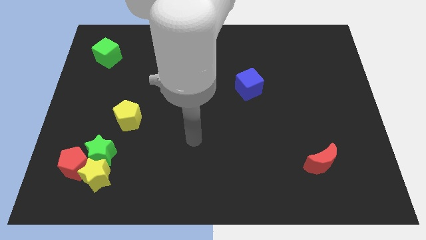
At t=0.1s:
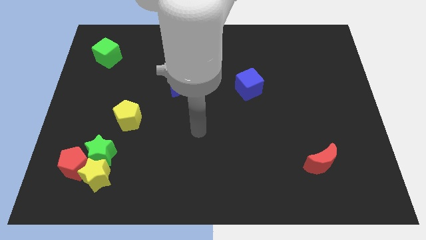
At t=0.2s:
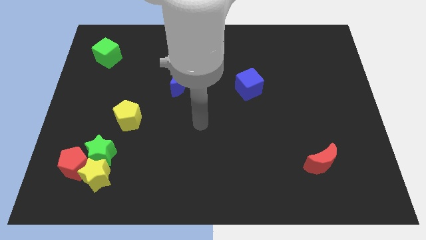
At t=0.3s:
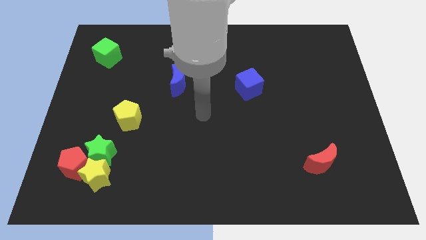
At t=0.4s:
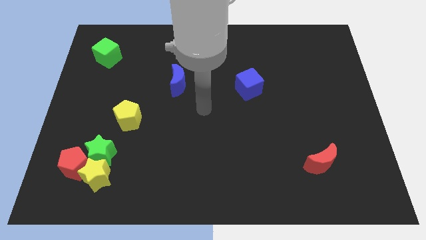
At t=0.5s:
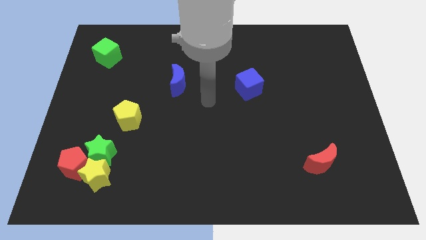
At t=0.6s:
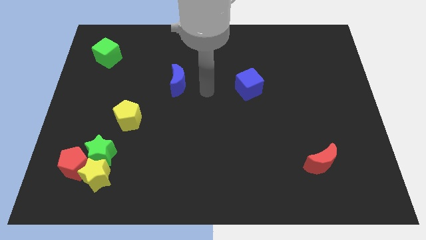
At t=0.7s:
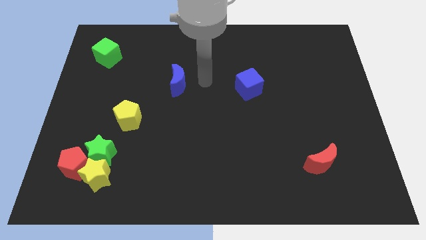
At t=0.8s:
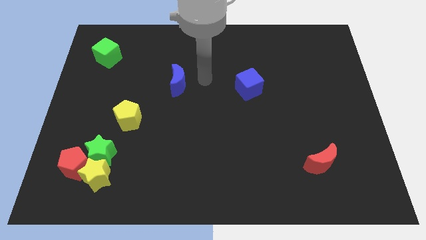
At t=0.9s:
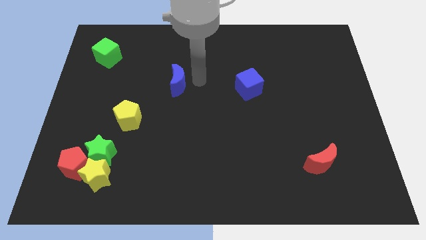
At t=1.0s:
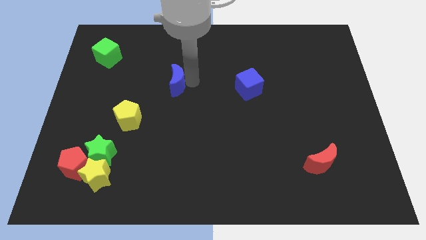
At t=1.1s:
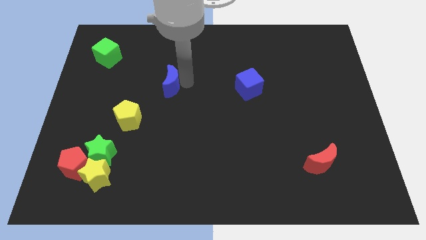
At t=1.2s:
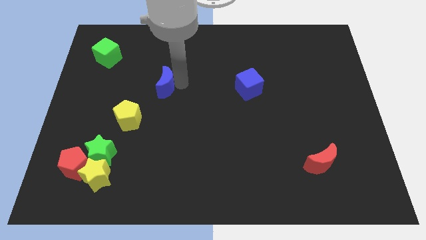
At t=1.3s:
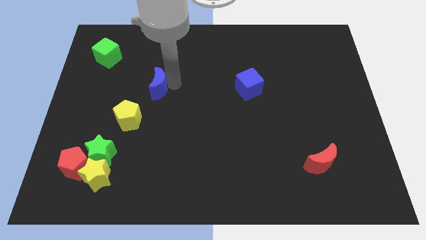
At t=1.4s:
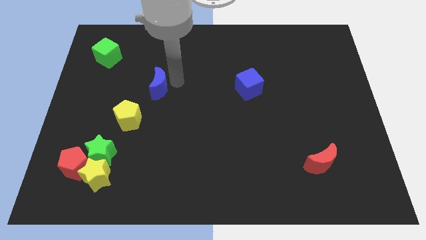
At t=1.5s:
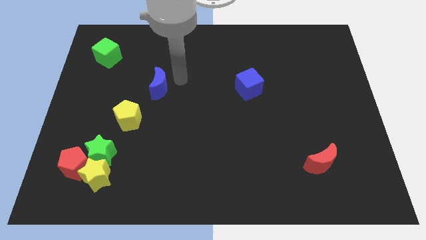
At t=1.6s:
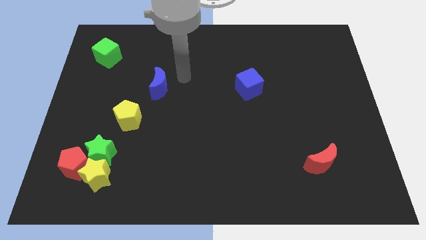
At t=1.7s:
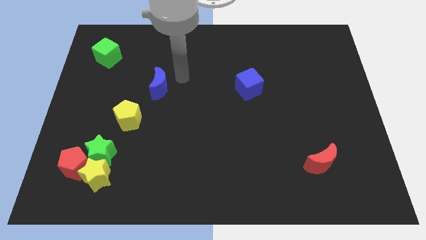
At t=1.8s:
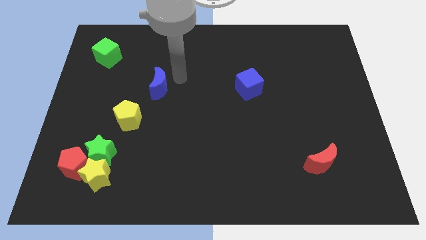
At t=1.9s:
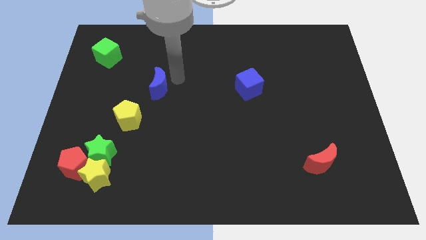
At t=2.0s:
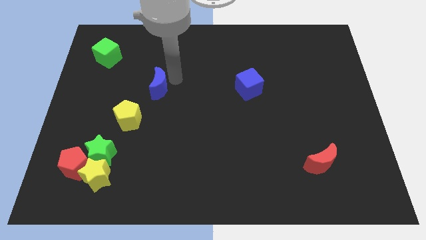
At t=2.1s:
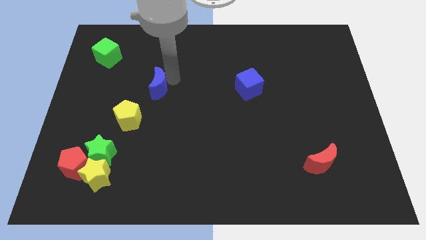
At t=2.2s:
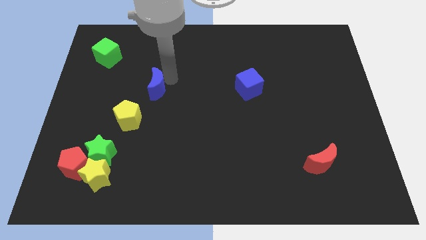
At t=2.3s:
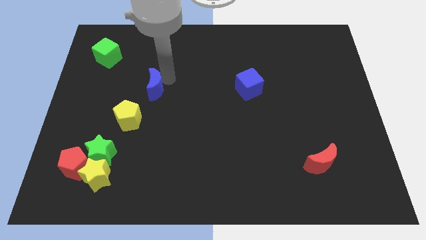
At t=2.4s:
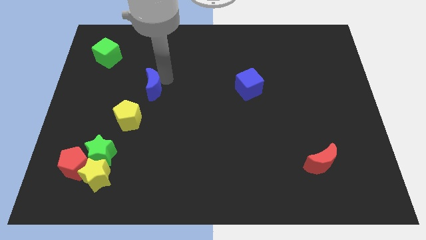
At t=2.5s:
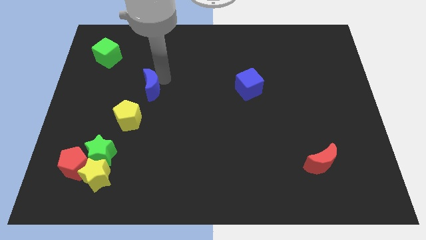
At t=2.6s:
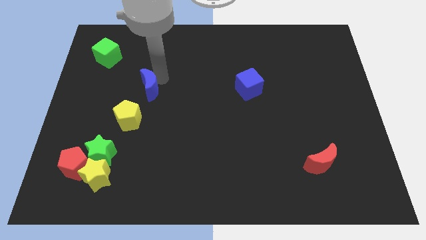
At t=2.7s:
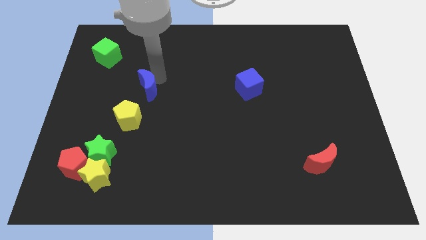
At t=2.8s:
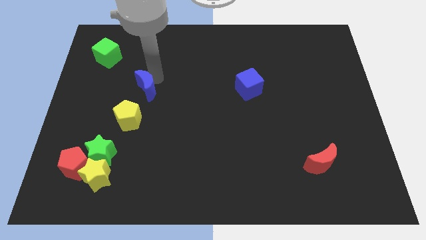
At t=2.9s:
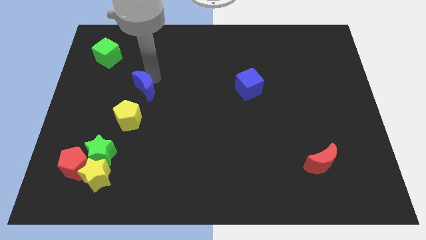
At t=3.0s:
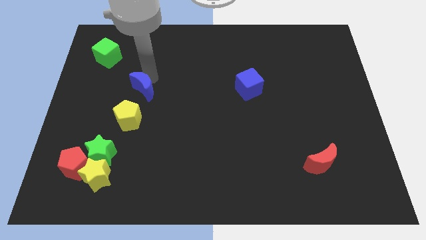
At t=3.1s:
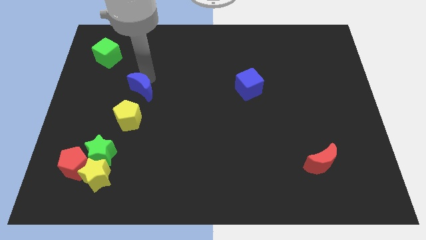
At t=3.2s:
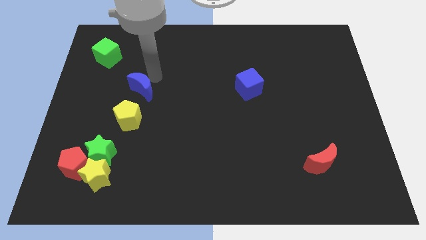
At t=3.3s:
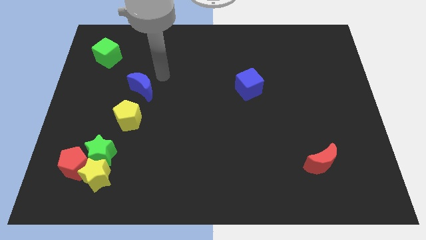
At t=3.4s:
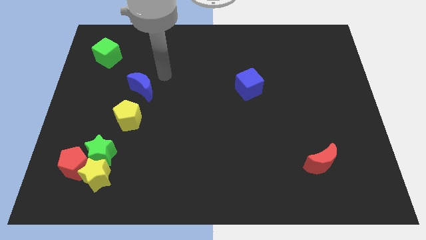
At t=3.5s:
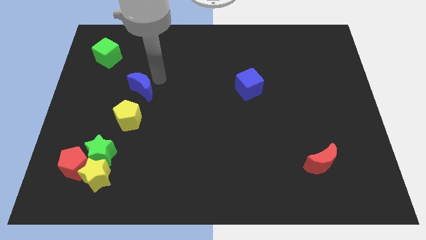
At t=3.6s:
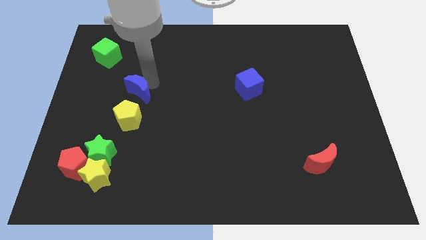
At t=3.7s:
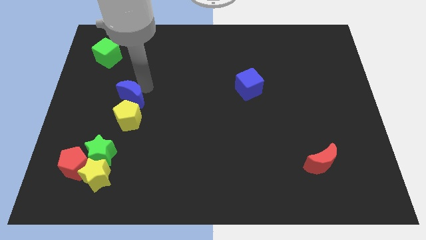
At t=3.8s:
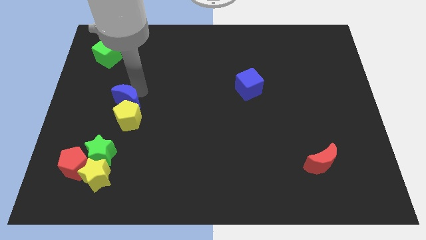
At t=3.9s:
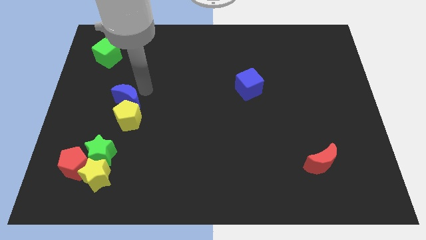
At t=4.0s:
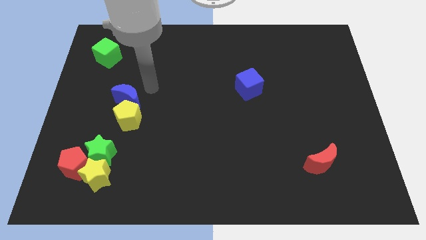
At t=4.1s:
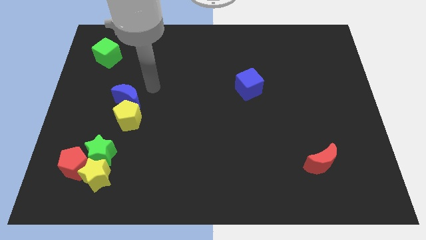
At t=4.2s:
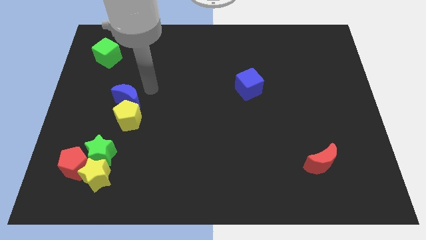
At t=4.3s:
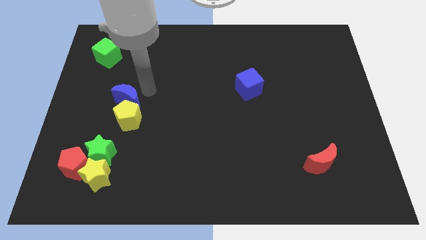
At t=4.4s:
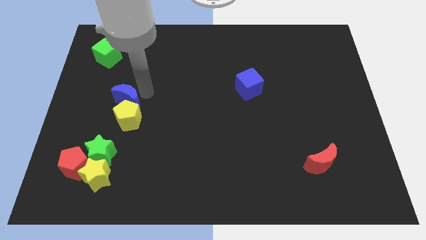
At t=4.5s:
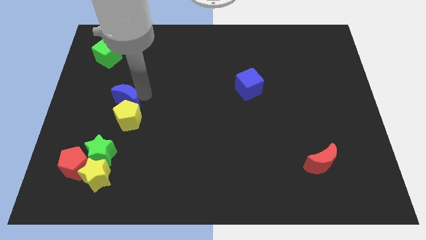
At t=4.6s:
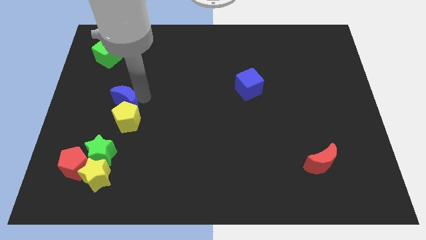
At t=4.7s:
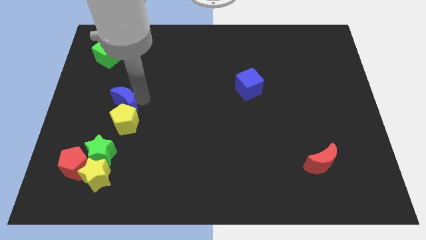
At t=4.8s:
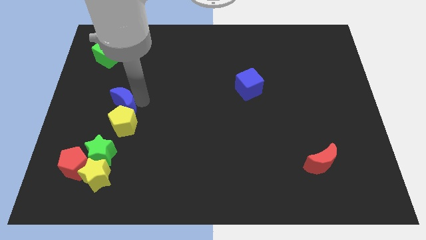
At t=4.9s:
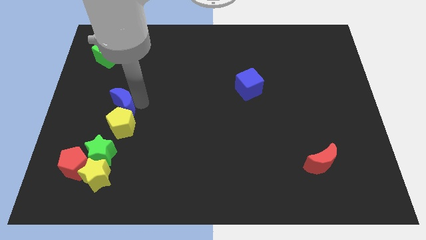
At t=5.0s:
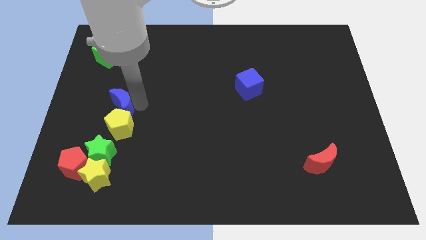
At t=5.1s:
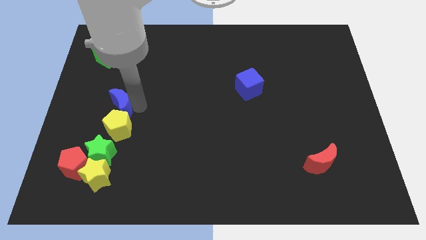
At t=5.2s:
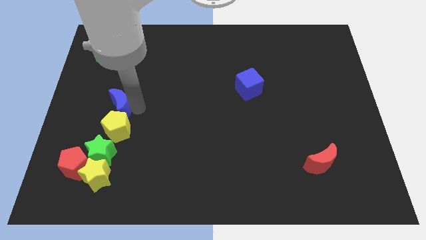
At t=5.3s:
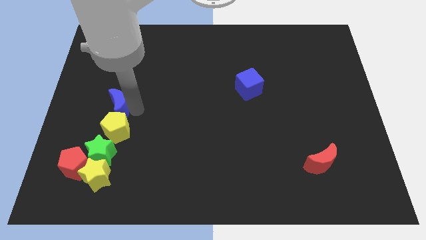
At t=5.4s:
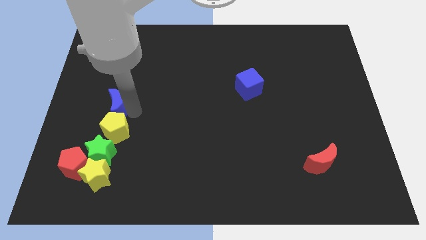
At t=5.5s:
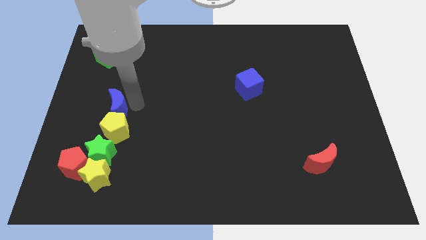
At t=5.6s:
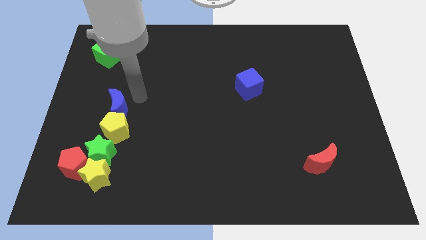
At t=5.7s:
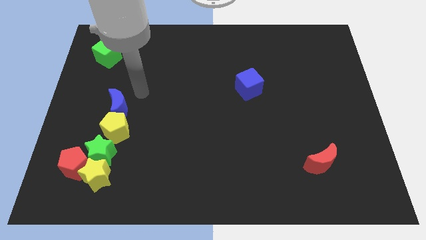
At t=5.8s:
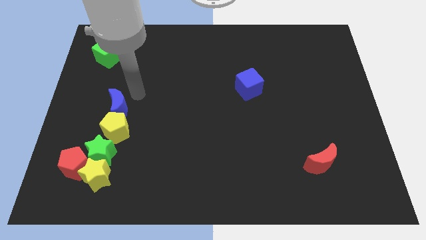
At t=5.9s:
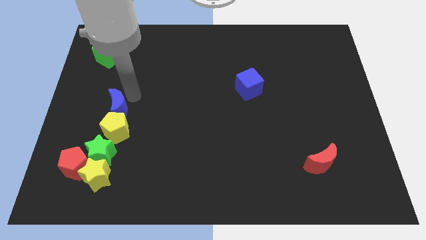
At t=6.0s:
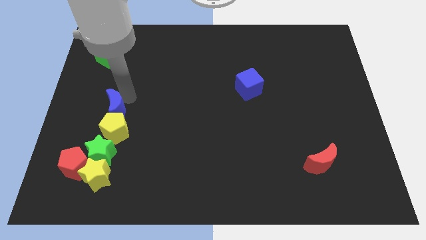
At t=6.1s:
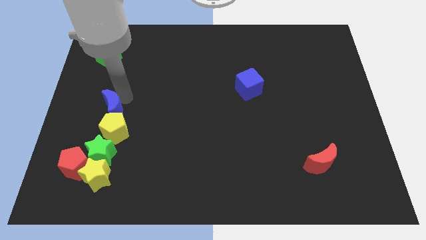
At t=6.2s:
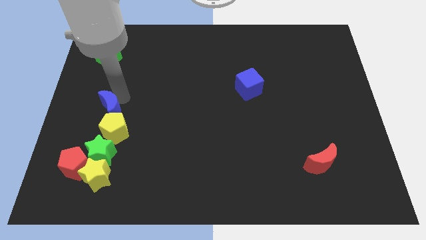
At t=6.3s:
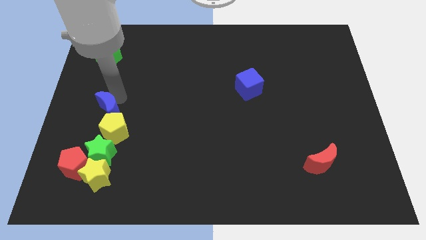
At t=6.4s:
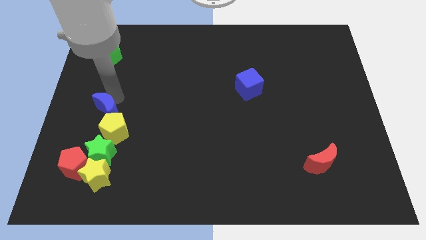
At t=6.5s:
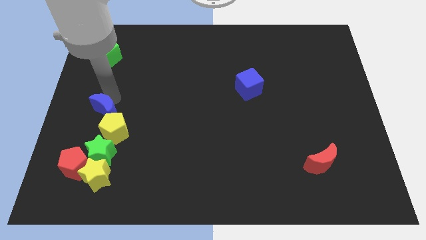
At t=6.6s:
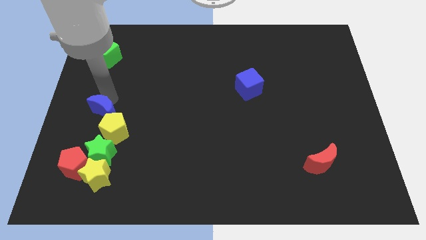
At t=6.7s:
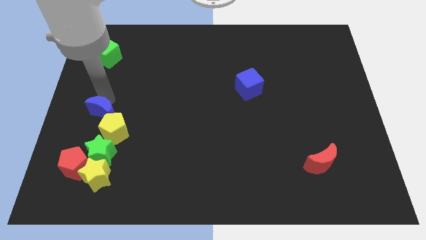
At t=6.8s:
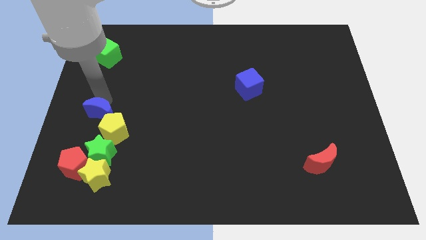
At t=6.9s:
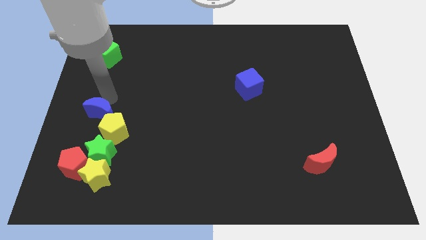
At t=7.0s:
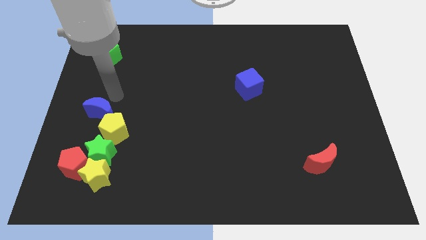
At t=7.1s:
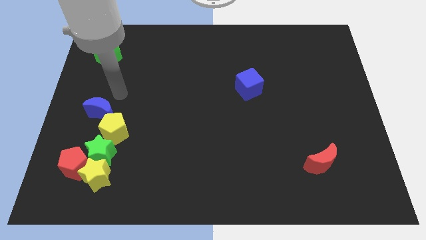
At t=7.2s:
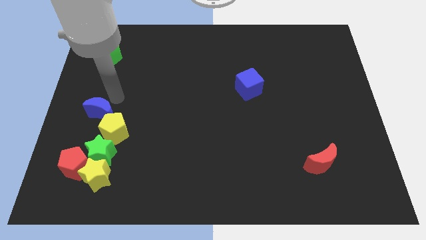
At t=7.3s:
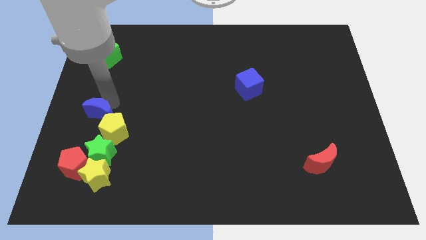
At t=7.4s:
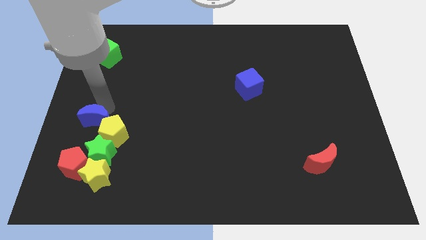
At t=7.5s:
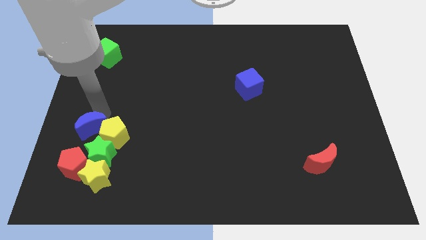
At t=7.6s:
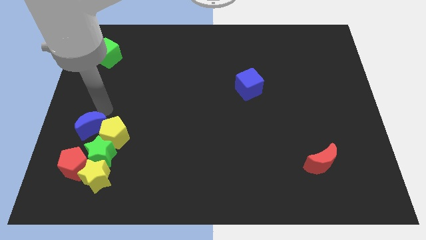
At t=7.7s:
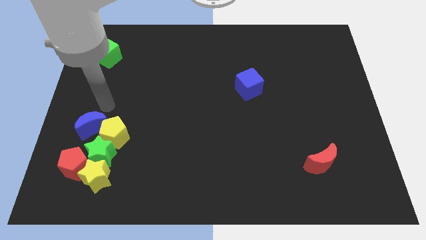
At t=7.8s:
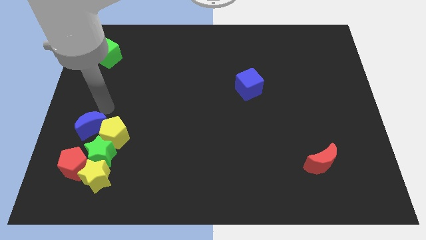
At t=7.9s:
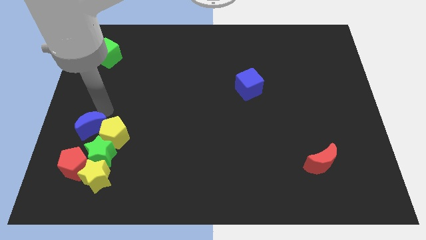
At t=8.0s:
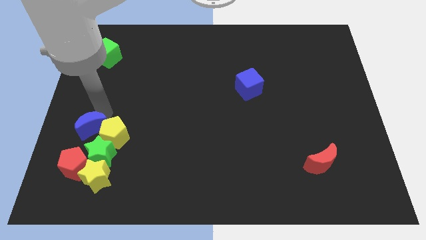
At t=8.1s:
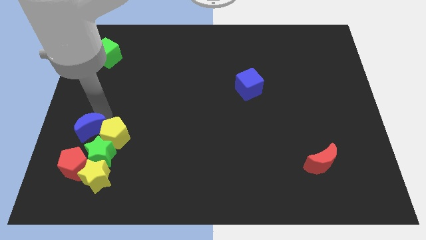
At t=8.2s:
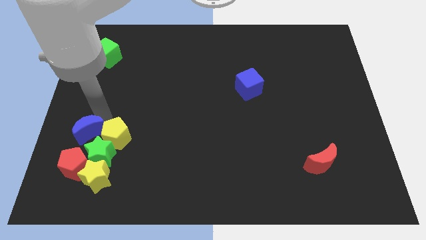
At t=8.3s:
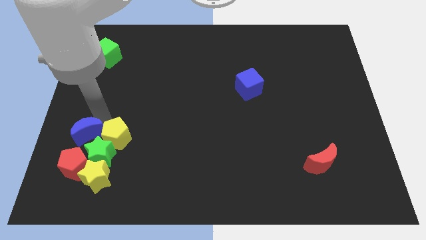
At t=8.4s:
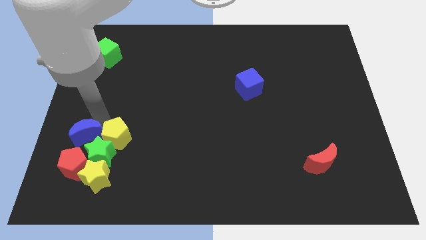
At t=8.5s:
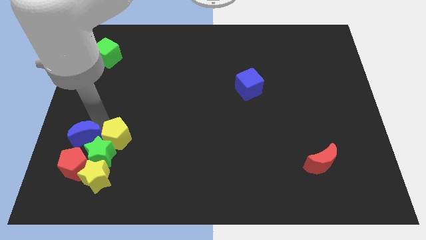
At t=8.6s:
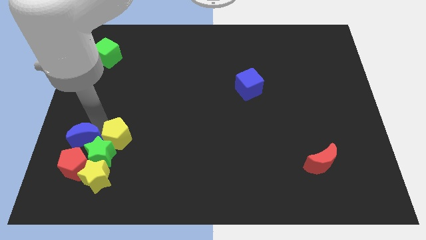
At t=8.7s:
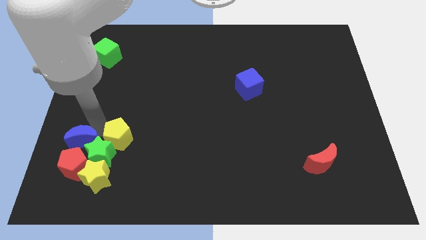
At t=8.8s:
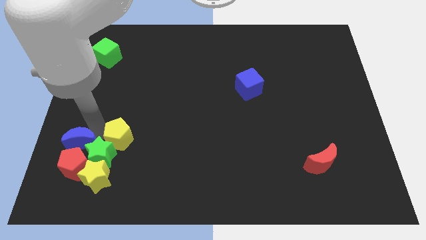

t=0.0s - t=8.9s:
push the blue moon to the red pentagon
